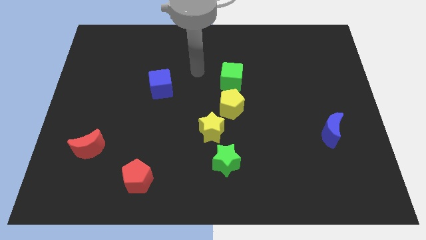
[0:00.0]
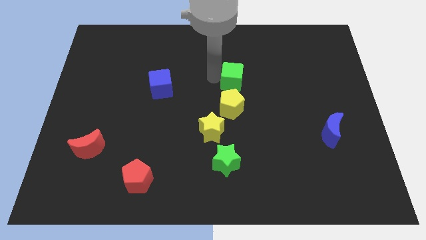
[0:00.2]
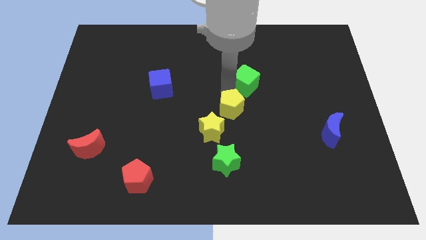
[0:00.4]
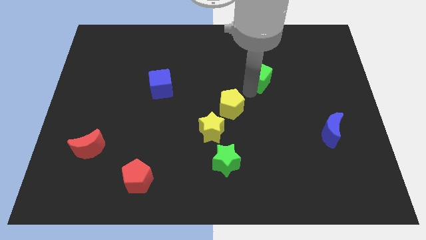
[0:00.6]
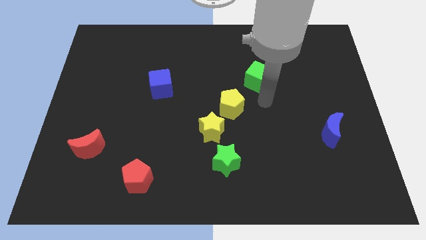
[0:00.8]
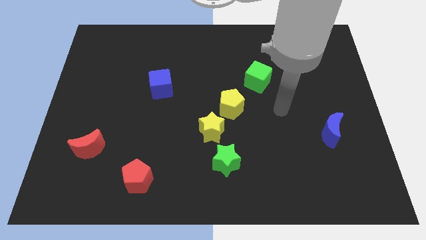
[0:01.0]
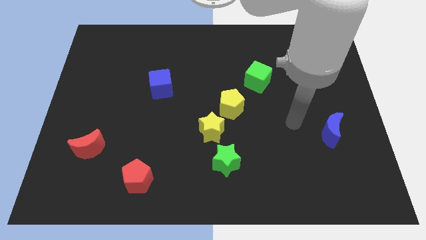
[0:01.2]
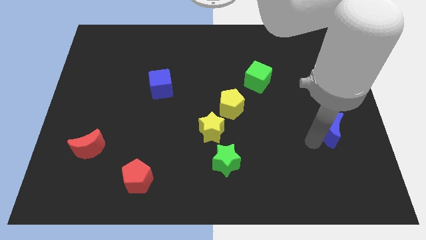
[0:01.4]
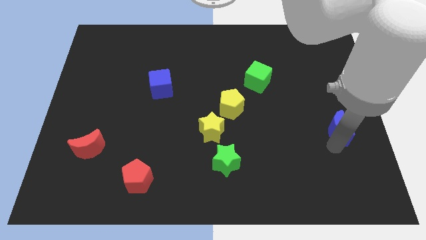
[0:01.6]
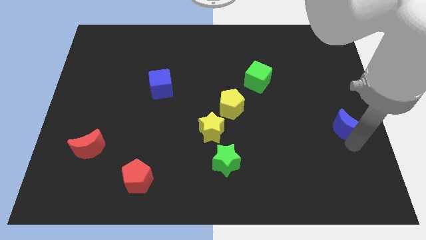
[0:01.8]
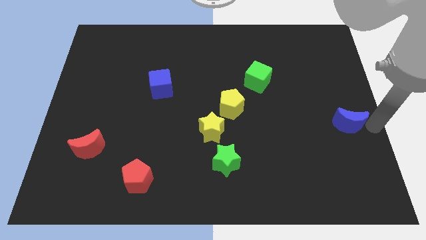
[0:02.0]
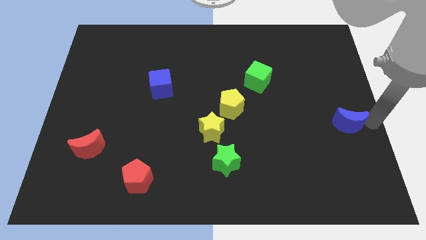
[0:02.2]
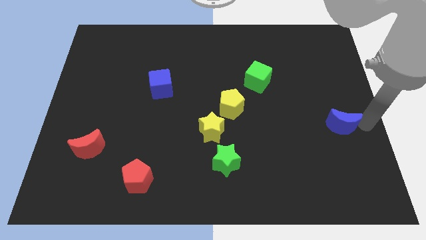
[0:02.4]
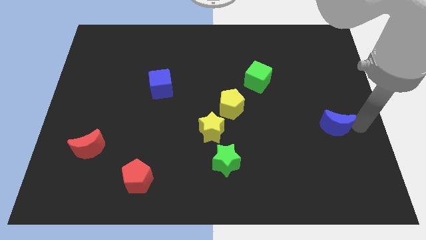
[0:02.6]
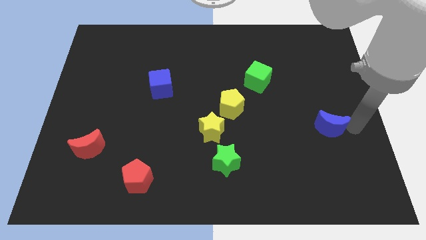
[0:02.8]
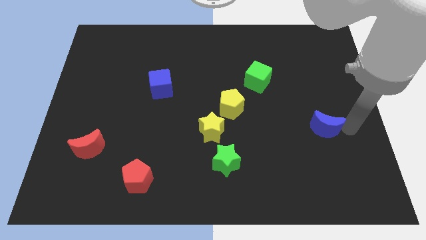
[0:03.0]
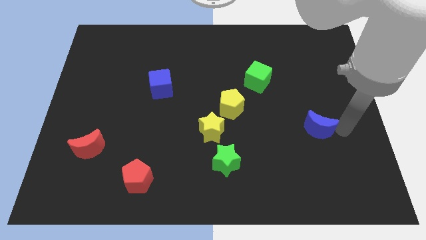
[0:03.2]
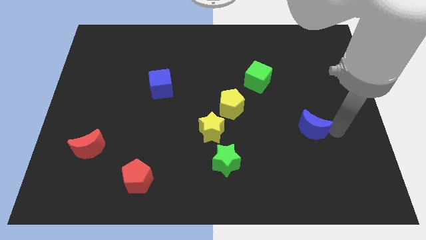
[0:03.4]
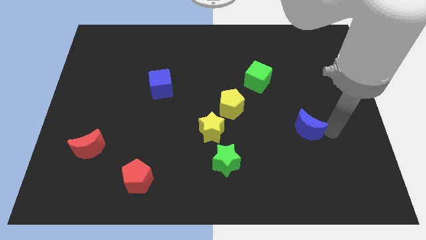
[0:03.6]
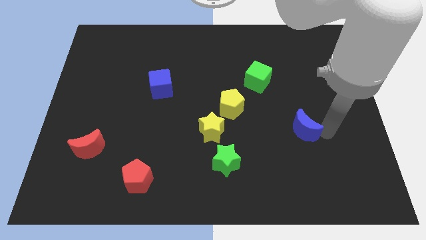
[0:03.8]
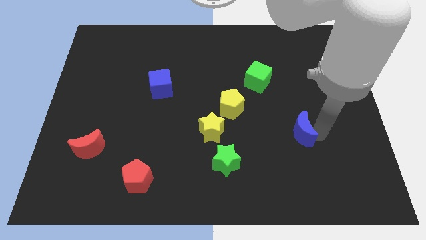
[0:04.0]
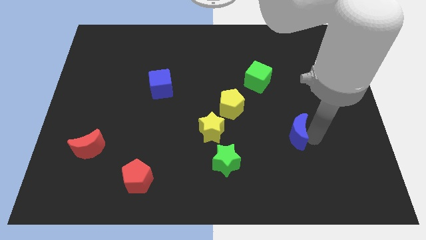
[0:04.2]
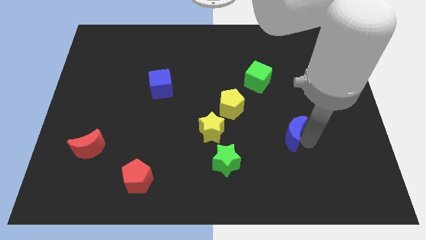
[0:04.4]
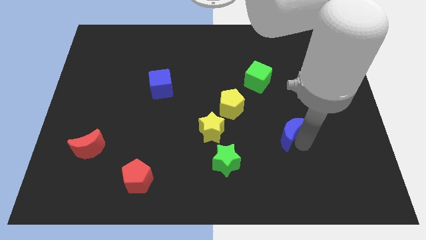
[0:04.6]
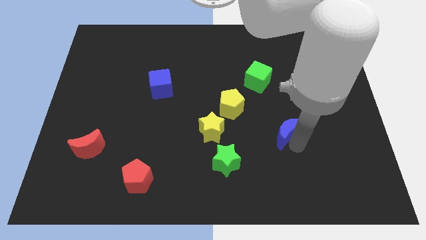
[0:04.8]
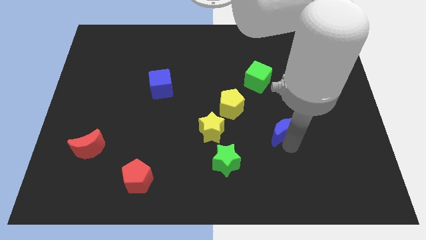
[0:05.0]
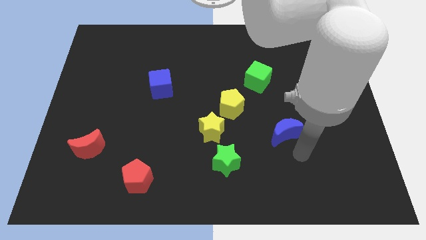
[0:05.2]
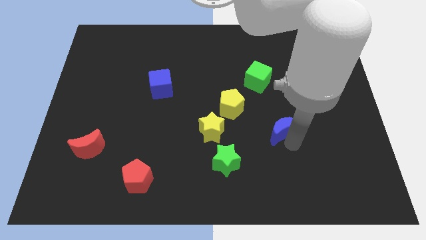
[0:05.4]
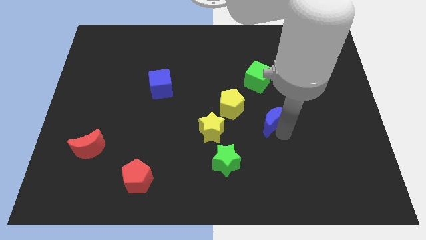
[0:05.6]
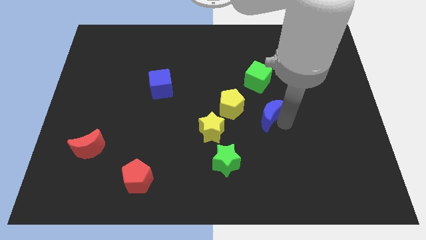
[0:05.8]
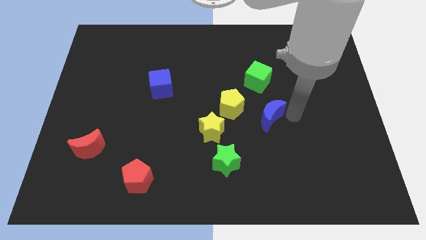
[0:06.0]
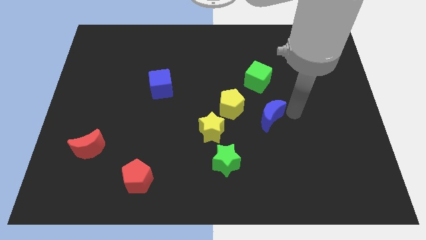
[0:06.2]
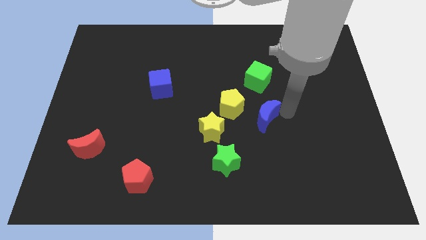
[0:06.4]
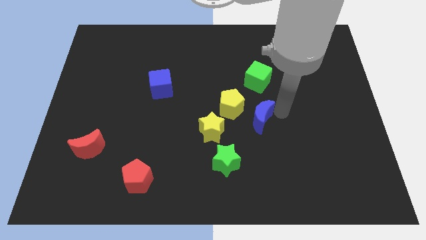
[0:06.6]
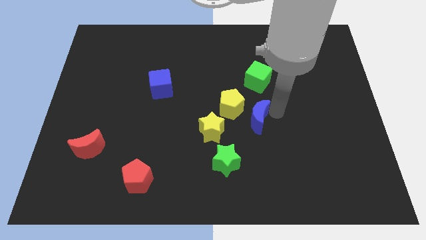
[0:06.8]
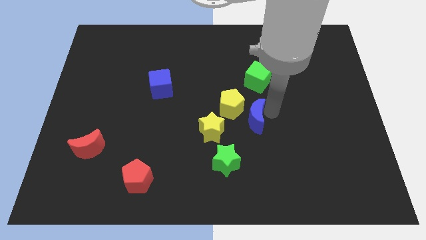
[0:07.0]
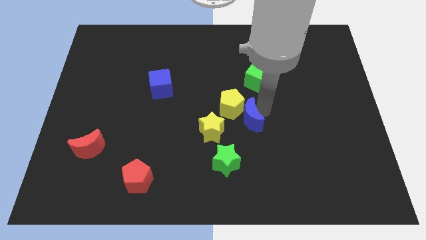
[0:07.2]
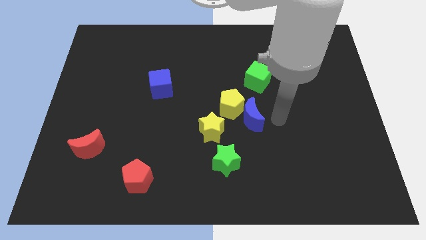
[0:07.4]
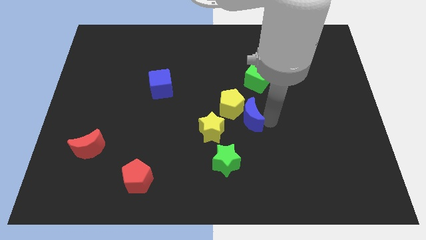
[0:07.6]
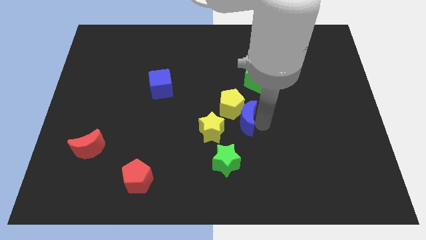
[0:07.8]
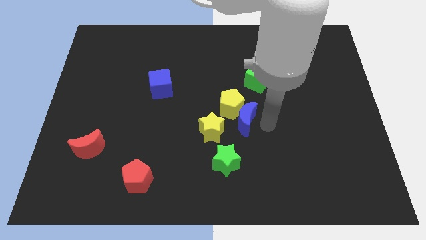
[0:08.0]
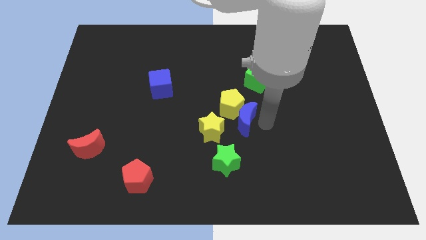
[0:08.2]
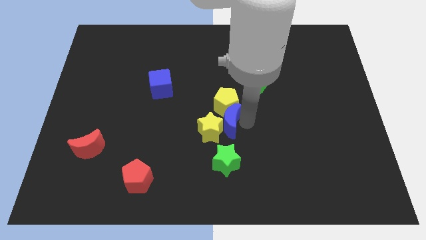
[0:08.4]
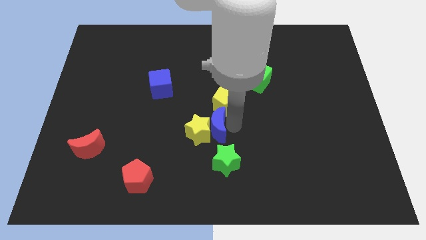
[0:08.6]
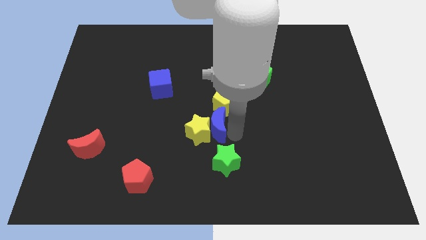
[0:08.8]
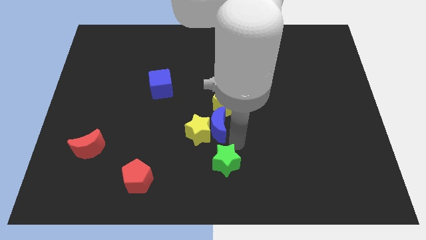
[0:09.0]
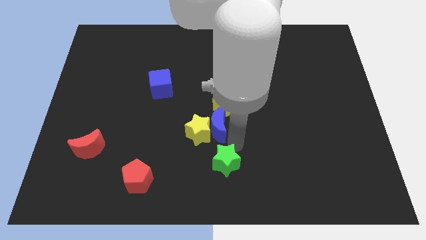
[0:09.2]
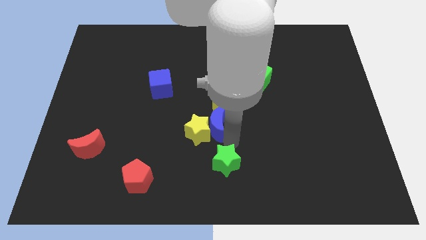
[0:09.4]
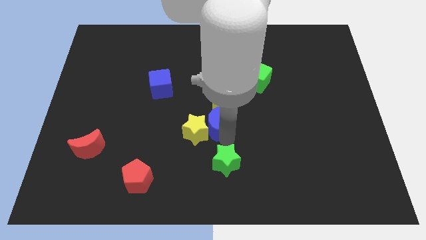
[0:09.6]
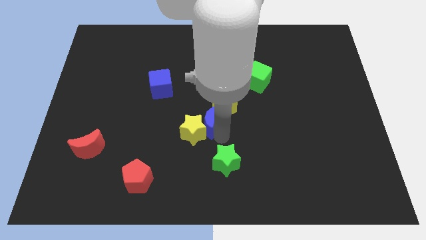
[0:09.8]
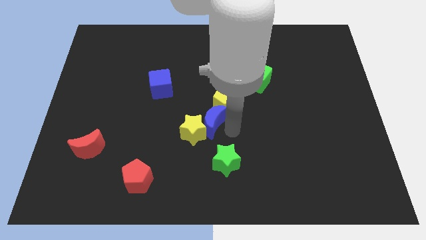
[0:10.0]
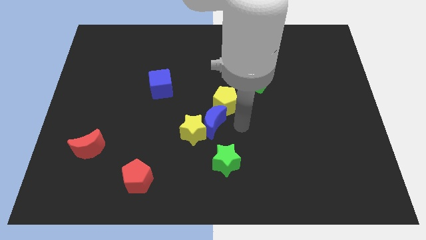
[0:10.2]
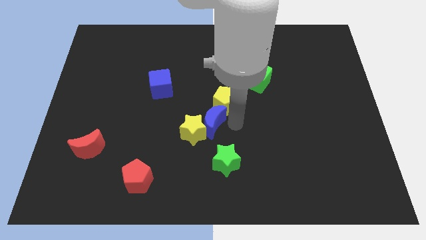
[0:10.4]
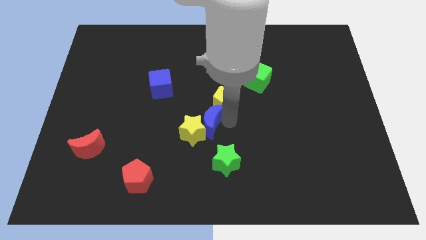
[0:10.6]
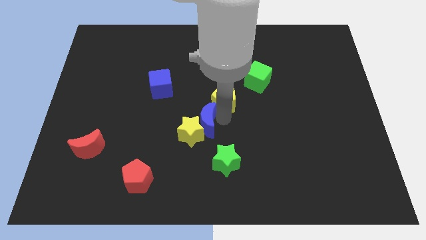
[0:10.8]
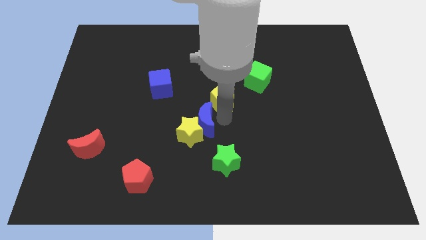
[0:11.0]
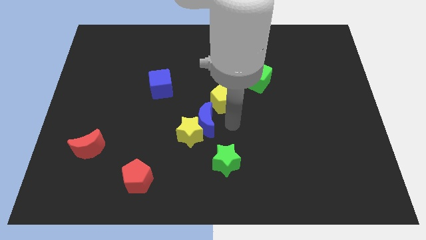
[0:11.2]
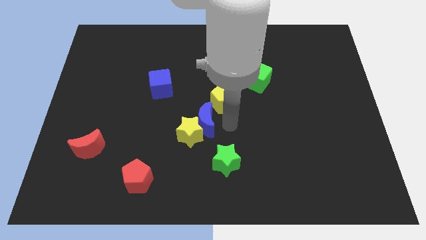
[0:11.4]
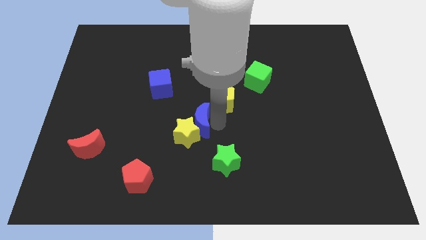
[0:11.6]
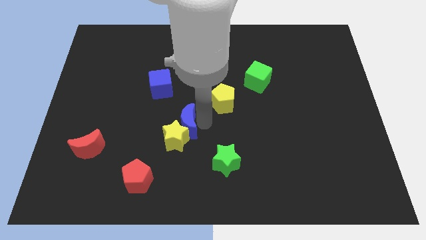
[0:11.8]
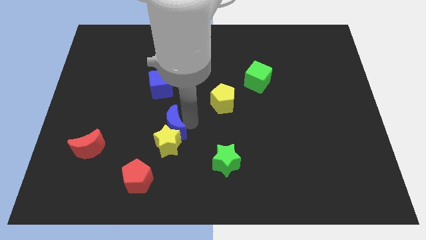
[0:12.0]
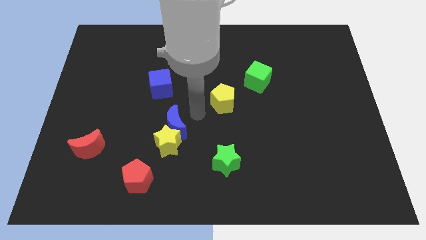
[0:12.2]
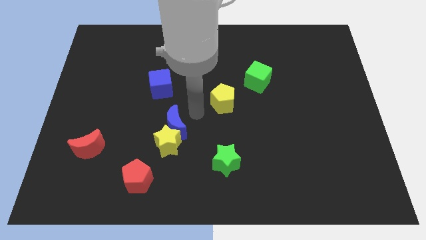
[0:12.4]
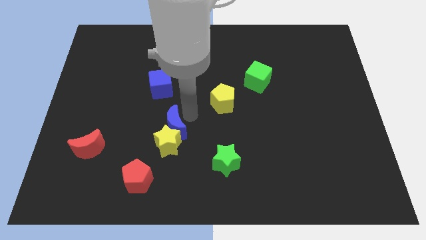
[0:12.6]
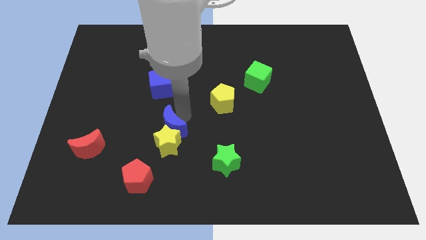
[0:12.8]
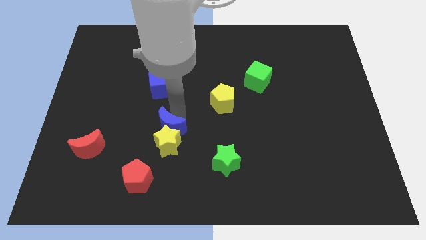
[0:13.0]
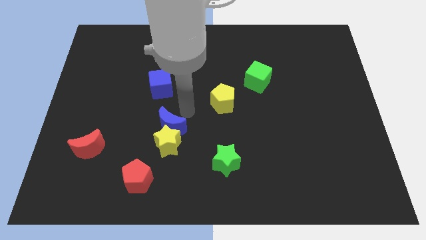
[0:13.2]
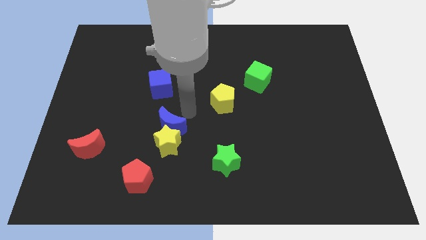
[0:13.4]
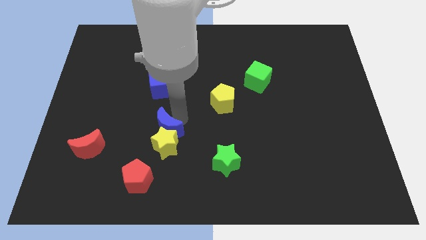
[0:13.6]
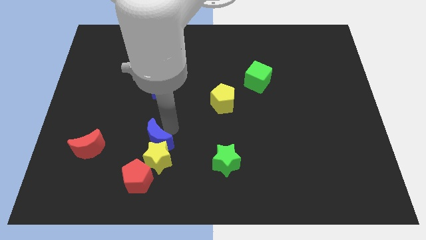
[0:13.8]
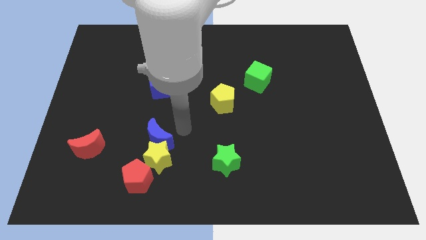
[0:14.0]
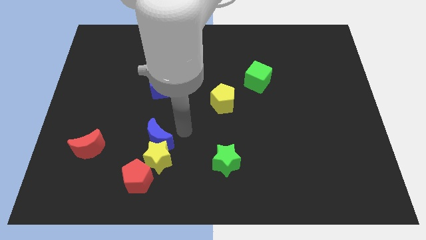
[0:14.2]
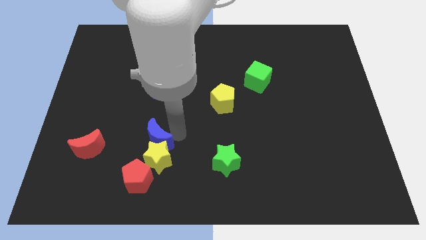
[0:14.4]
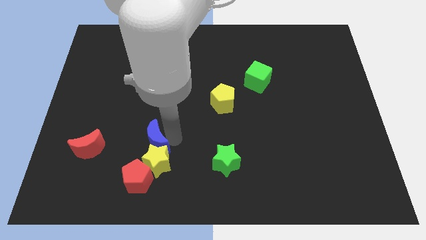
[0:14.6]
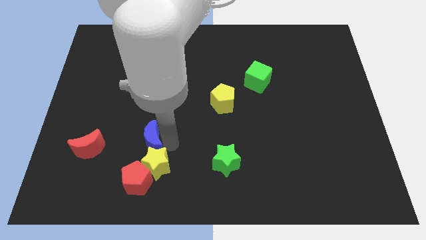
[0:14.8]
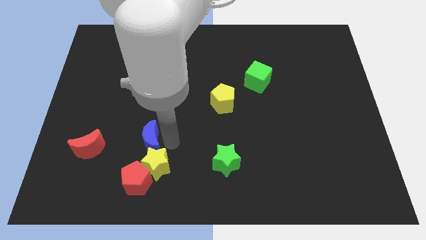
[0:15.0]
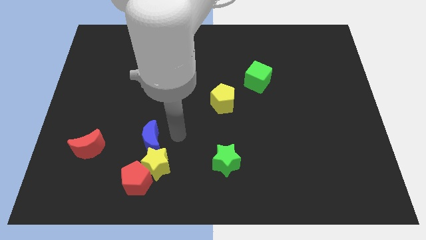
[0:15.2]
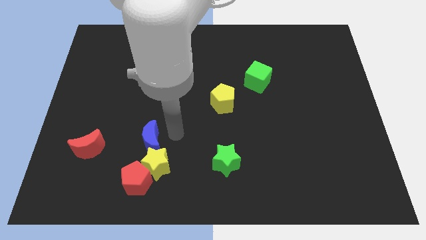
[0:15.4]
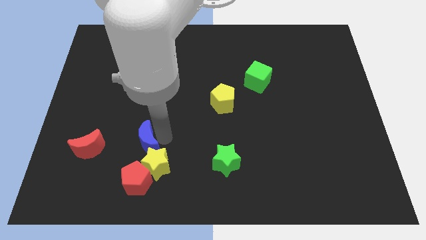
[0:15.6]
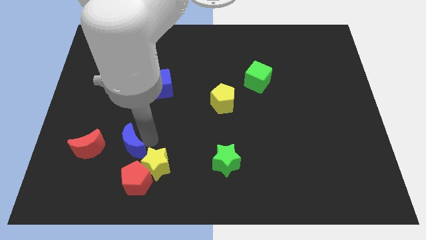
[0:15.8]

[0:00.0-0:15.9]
push the blue moon diagonally up and to the left of the red pentagon

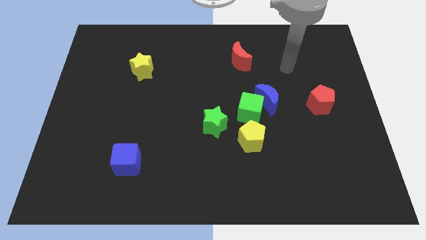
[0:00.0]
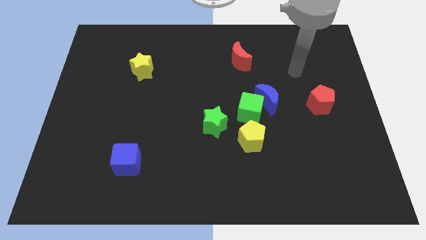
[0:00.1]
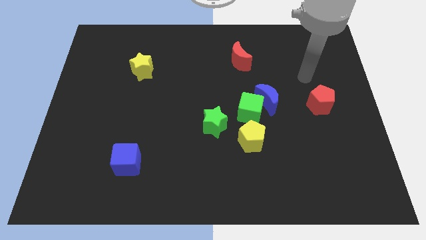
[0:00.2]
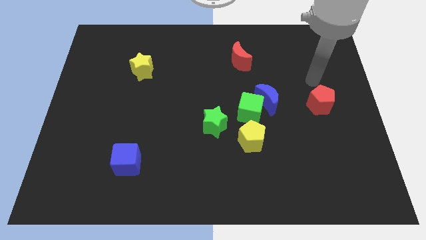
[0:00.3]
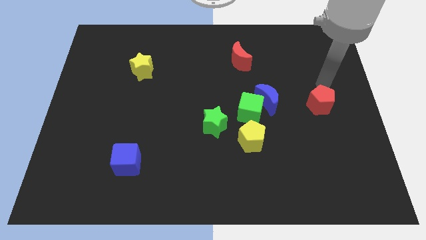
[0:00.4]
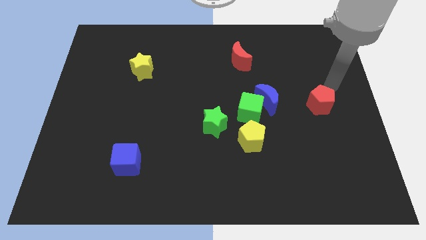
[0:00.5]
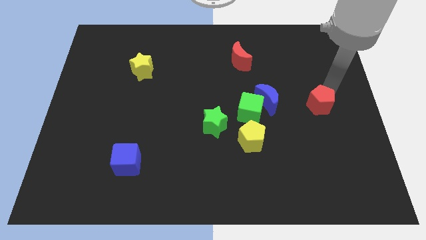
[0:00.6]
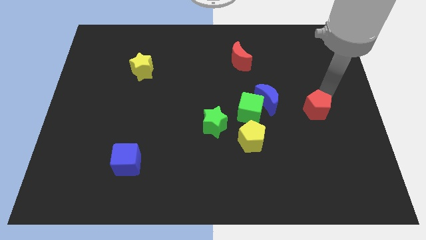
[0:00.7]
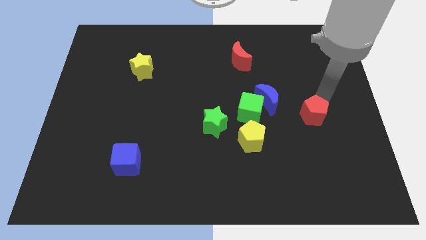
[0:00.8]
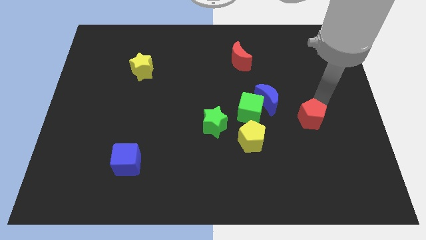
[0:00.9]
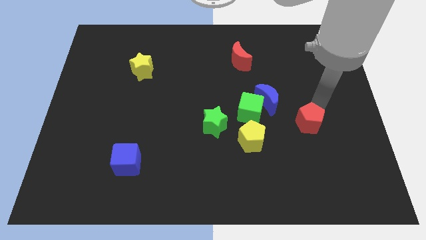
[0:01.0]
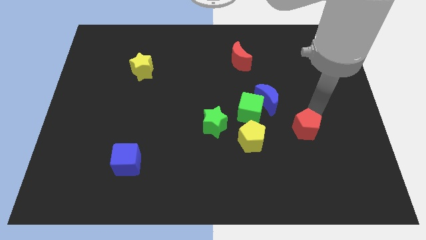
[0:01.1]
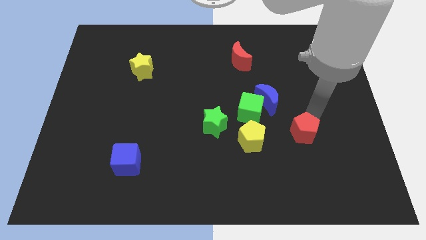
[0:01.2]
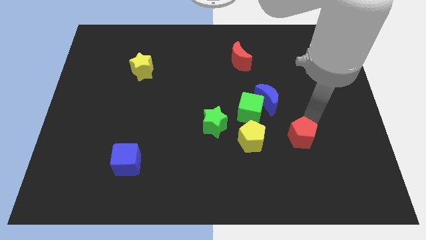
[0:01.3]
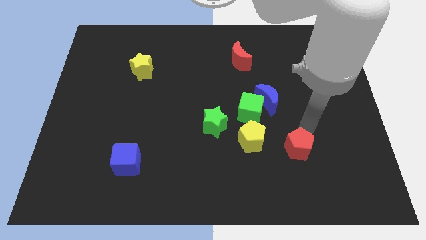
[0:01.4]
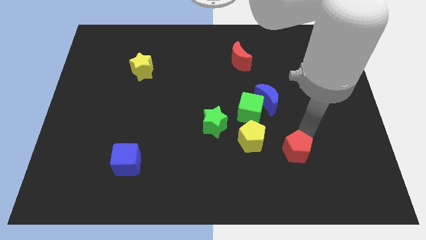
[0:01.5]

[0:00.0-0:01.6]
slide the red pentagon to the bottom right of the yellow pentagon
